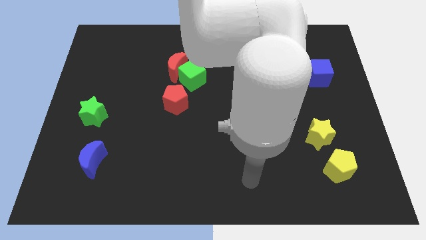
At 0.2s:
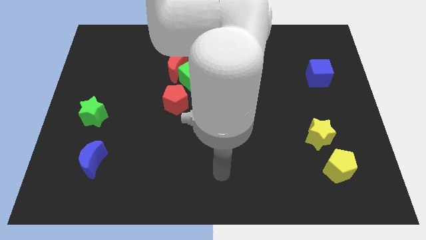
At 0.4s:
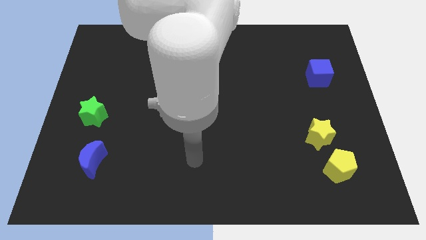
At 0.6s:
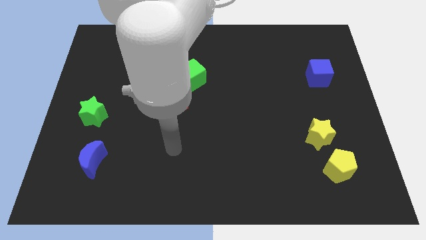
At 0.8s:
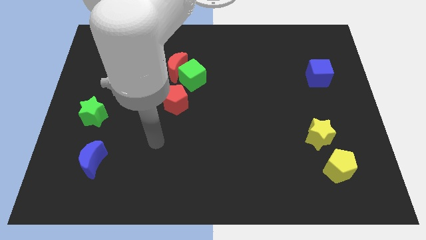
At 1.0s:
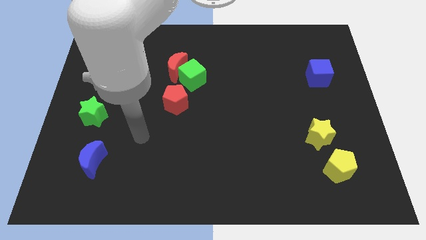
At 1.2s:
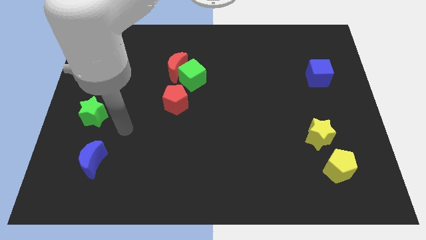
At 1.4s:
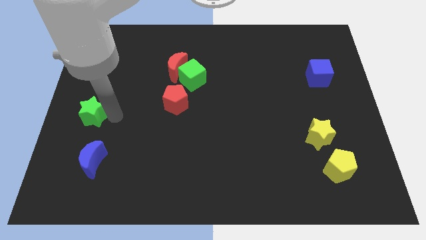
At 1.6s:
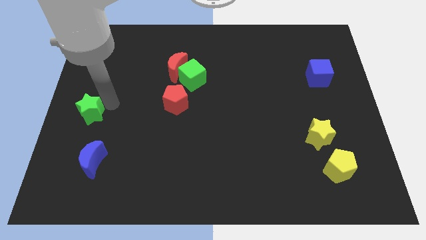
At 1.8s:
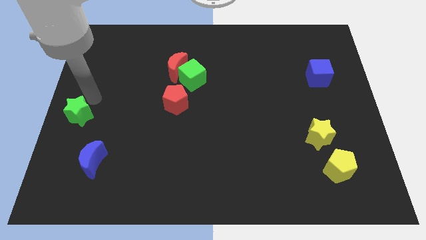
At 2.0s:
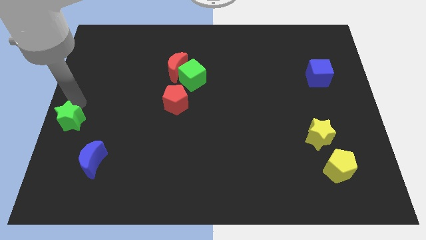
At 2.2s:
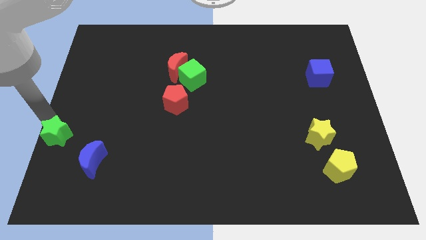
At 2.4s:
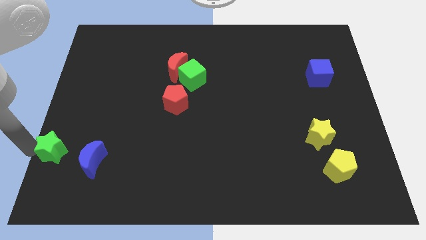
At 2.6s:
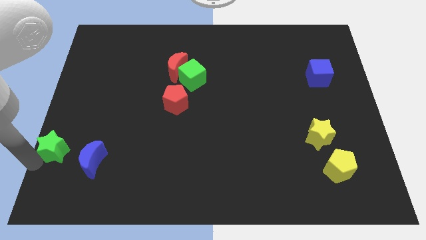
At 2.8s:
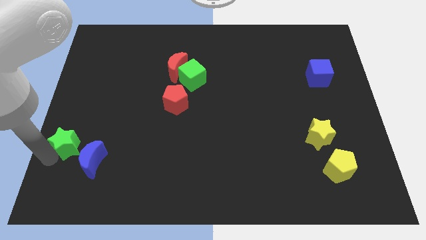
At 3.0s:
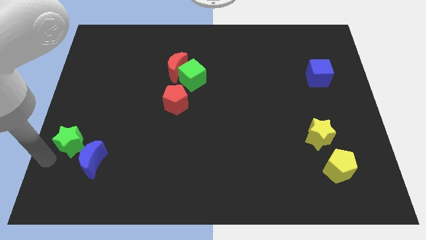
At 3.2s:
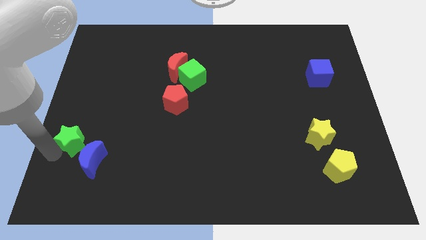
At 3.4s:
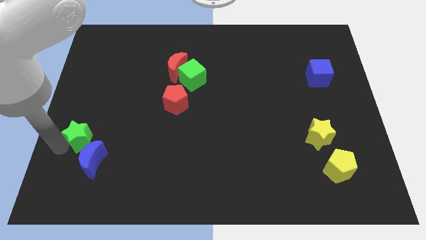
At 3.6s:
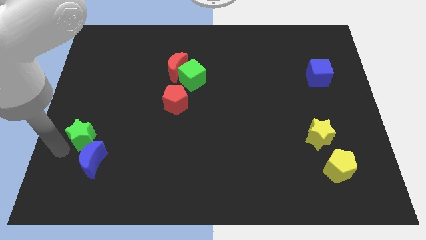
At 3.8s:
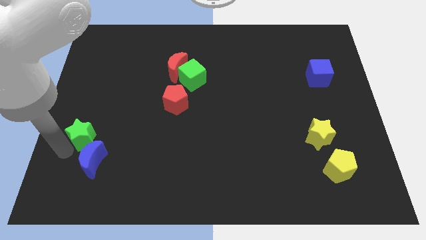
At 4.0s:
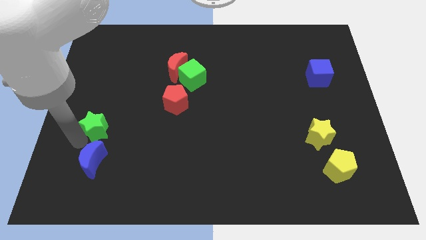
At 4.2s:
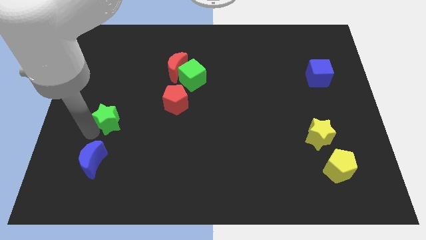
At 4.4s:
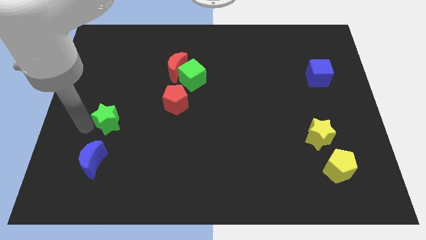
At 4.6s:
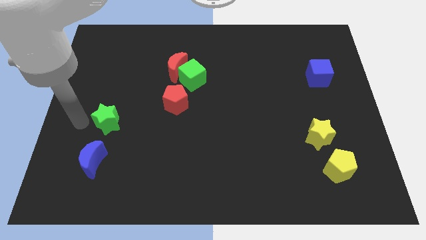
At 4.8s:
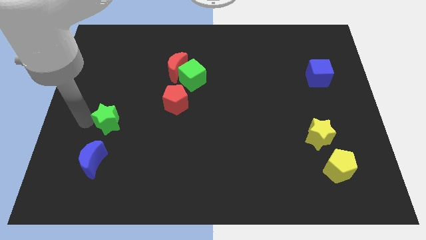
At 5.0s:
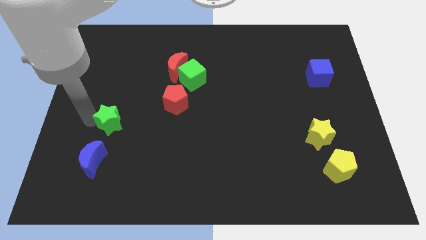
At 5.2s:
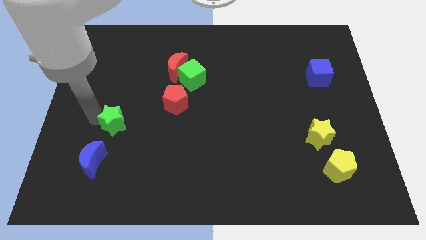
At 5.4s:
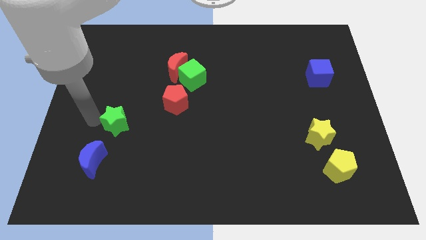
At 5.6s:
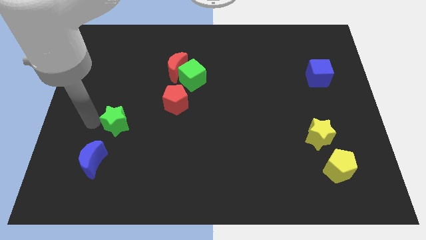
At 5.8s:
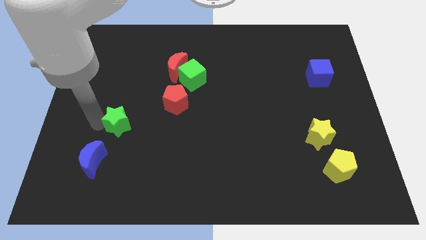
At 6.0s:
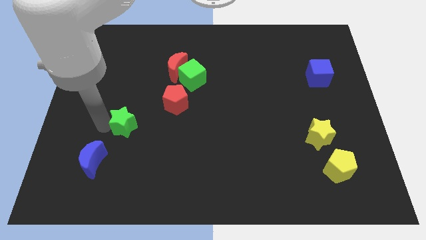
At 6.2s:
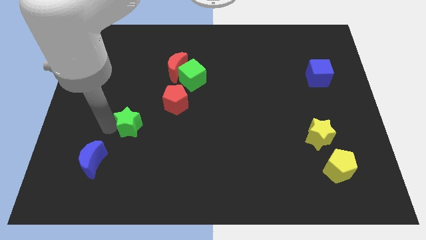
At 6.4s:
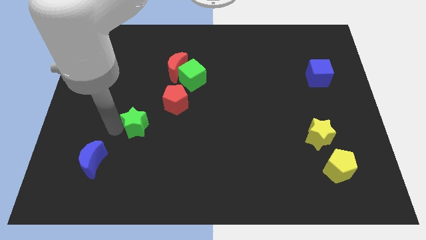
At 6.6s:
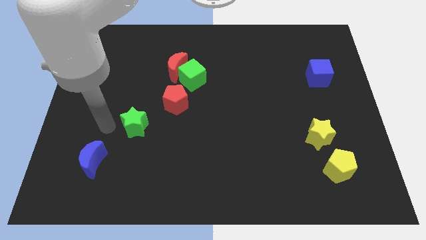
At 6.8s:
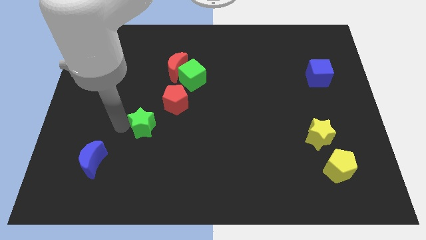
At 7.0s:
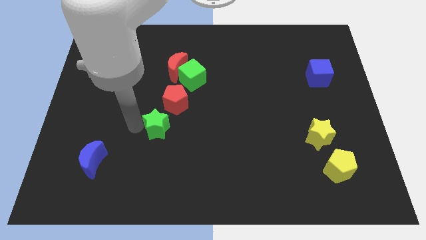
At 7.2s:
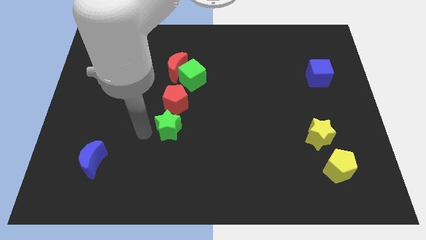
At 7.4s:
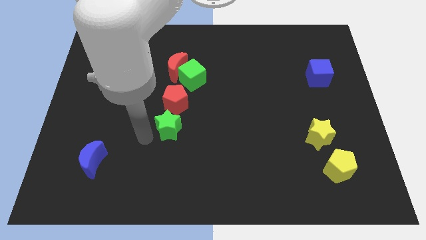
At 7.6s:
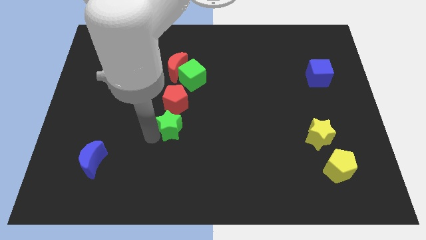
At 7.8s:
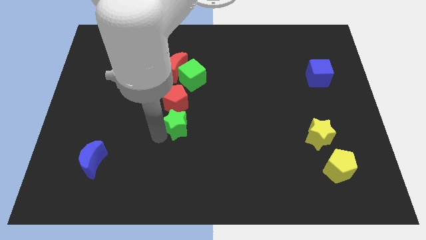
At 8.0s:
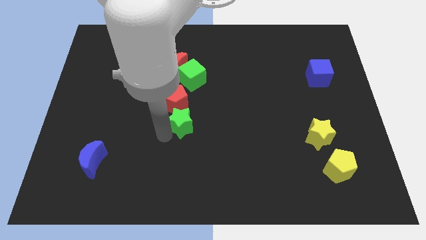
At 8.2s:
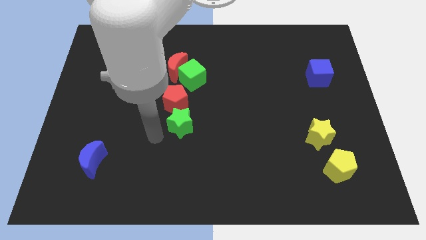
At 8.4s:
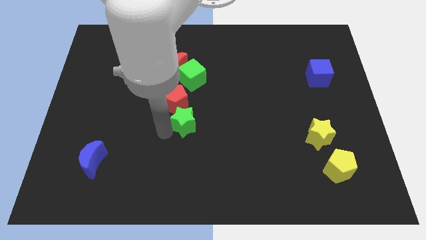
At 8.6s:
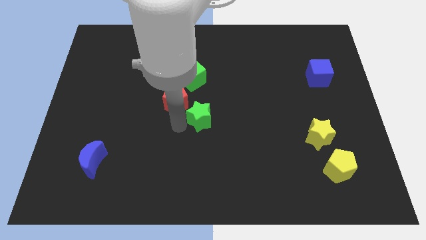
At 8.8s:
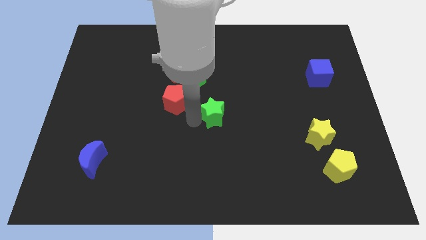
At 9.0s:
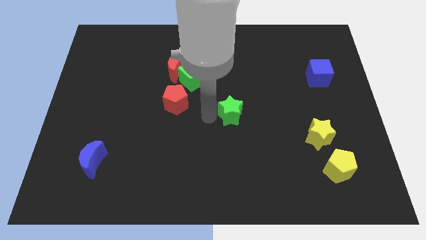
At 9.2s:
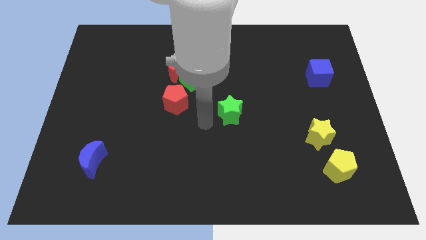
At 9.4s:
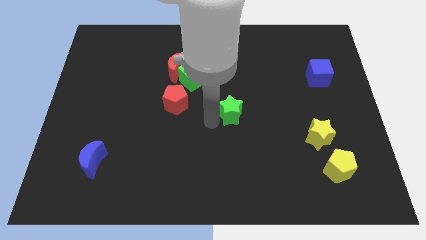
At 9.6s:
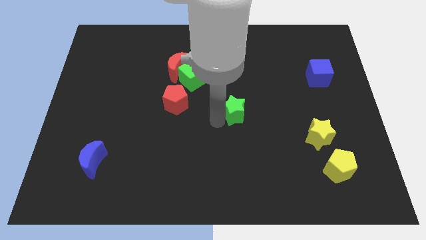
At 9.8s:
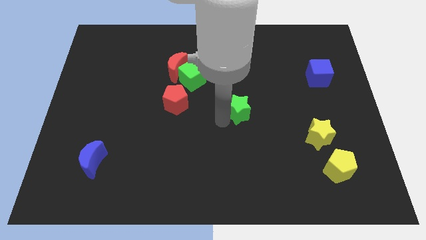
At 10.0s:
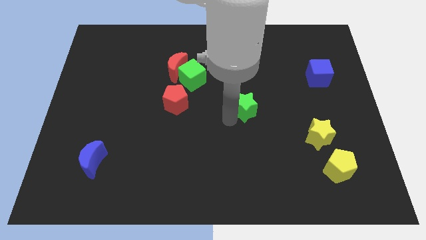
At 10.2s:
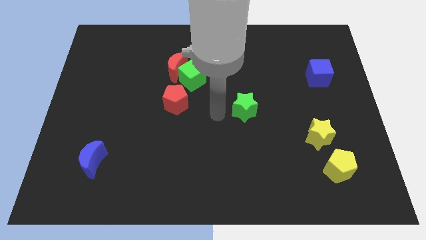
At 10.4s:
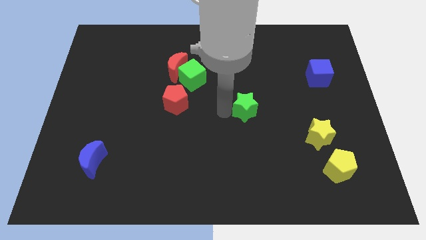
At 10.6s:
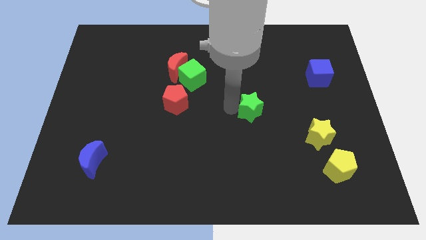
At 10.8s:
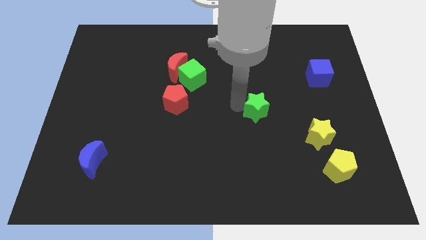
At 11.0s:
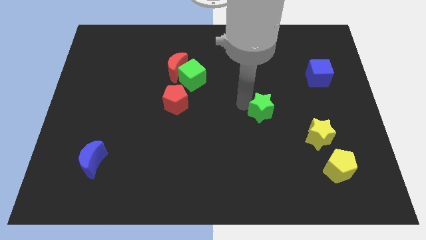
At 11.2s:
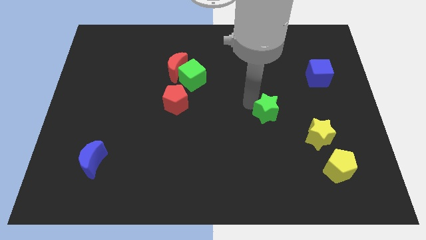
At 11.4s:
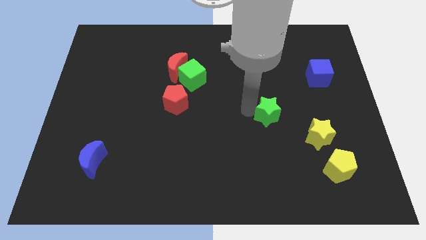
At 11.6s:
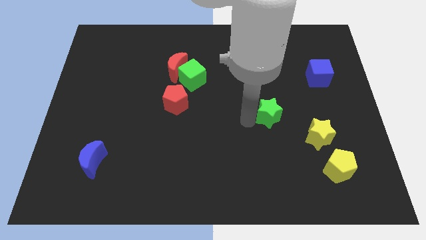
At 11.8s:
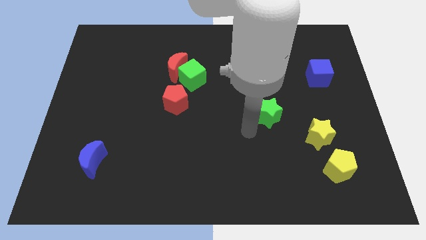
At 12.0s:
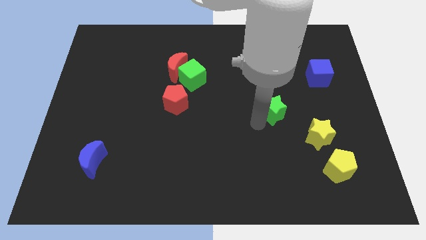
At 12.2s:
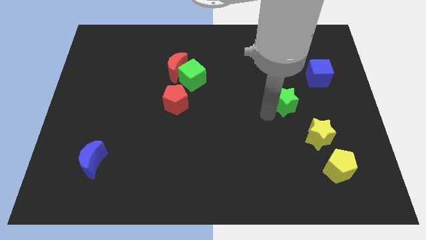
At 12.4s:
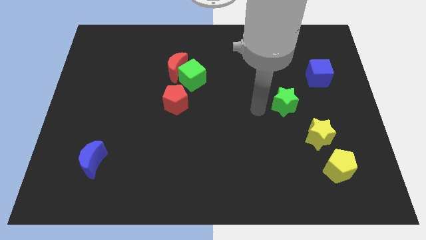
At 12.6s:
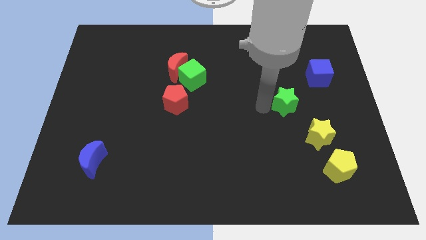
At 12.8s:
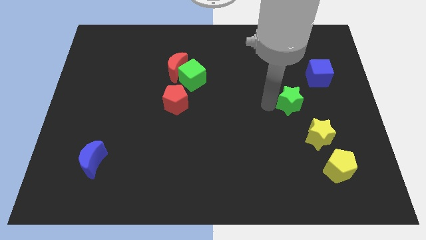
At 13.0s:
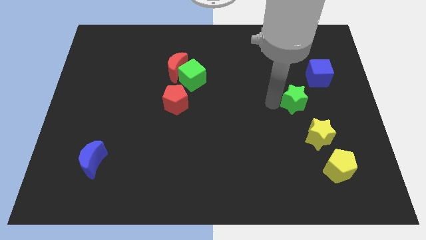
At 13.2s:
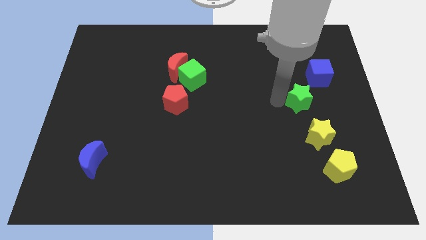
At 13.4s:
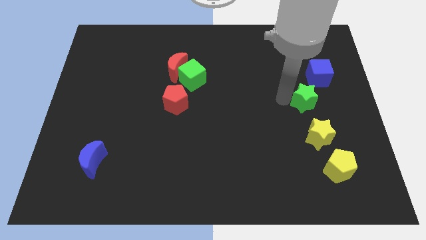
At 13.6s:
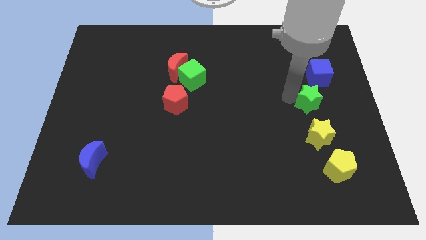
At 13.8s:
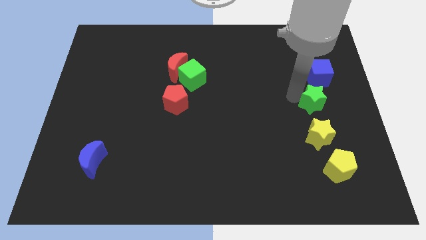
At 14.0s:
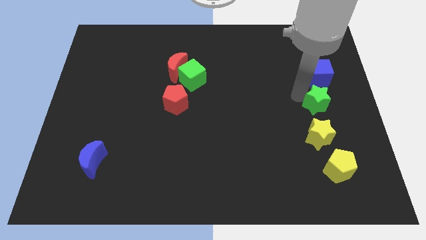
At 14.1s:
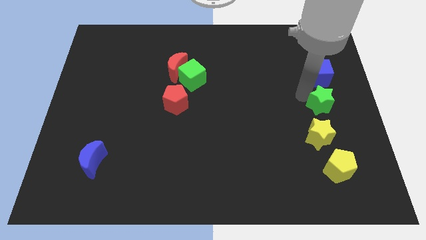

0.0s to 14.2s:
slide the green star to the center right

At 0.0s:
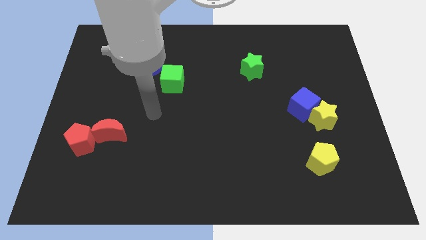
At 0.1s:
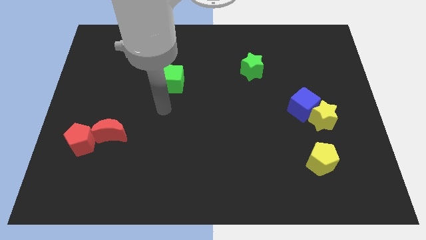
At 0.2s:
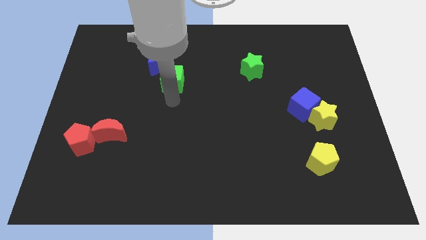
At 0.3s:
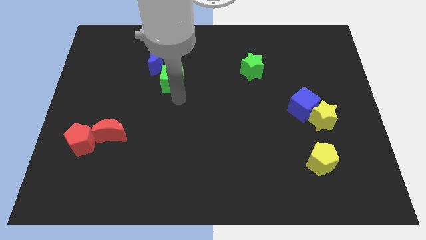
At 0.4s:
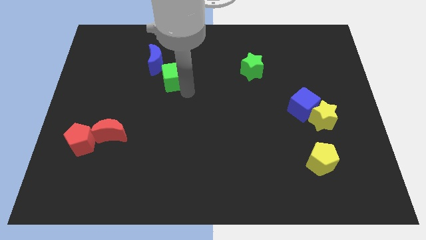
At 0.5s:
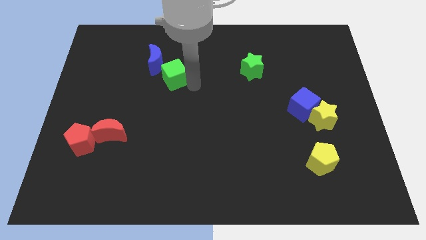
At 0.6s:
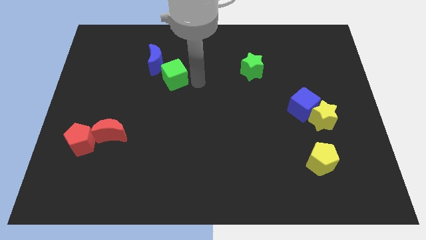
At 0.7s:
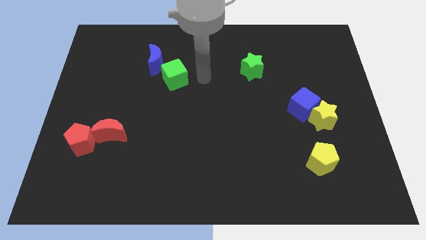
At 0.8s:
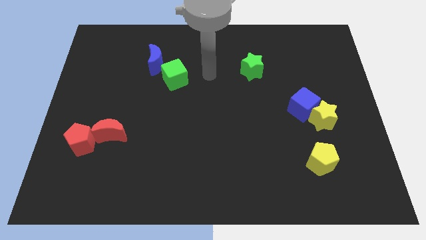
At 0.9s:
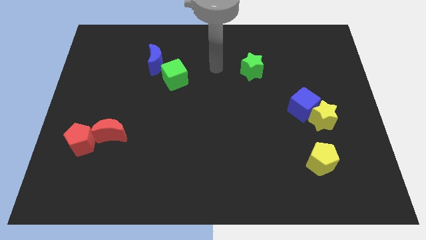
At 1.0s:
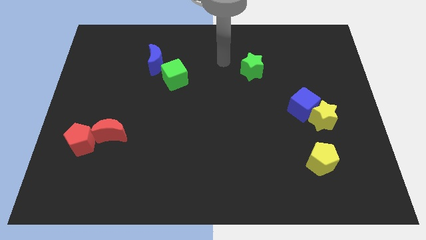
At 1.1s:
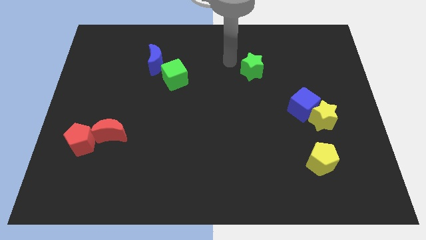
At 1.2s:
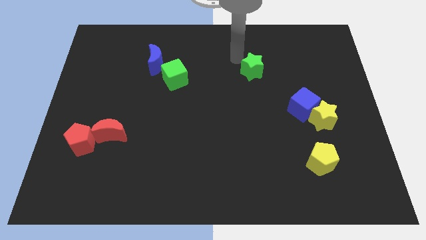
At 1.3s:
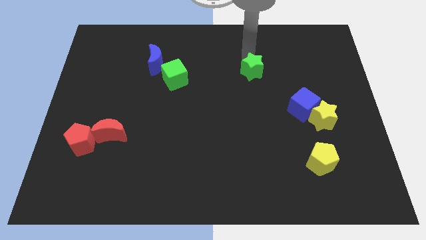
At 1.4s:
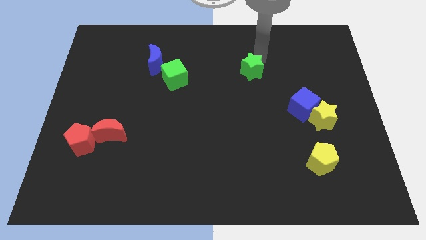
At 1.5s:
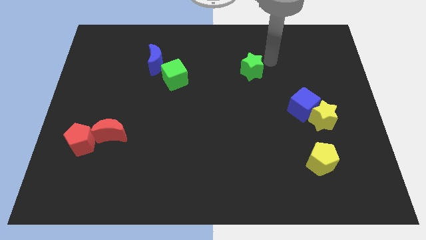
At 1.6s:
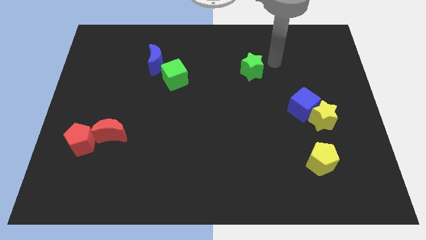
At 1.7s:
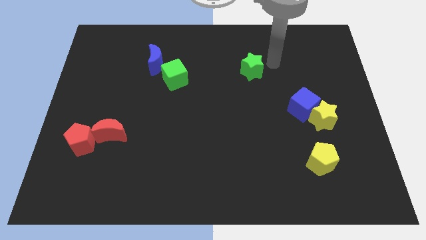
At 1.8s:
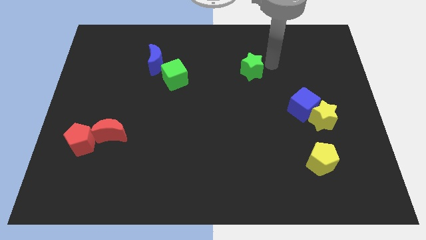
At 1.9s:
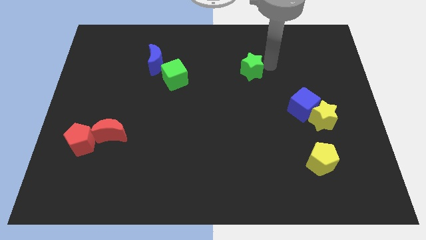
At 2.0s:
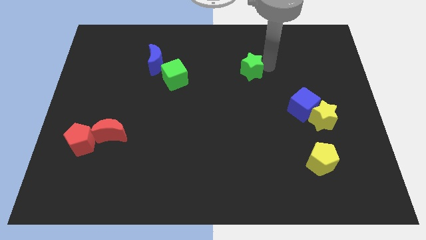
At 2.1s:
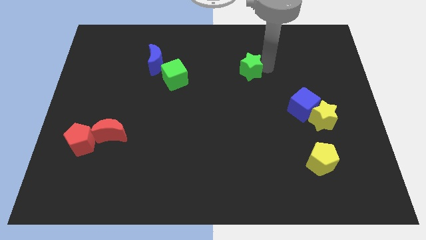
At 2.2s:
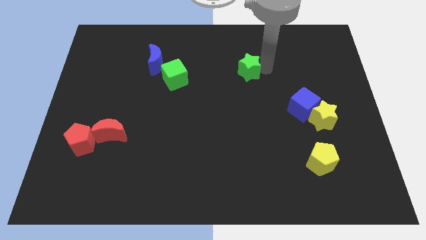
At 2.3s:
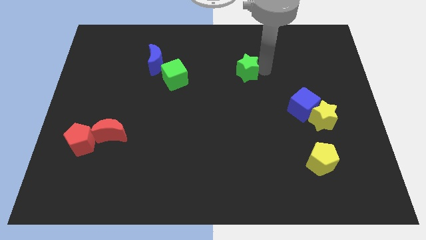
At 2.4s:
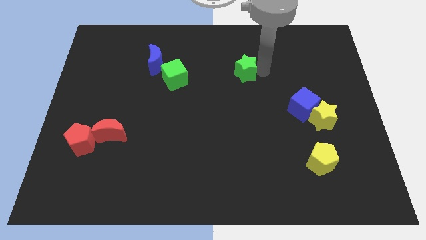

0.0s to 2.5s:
put the green star to the center of the board
